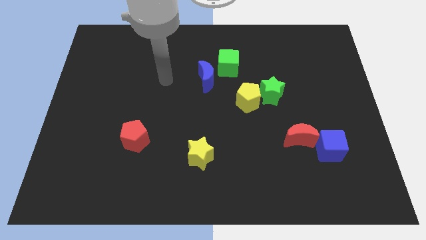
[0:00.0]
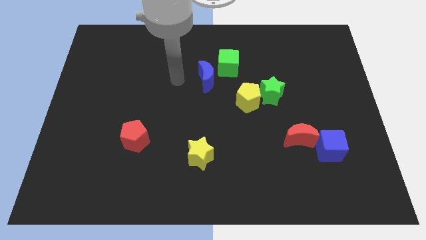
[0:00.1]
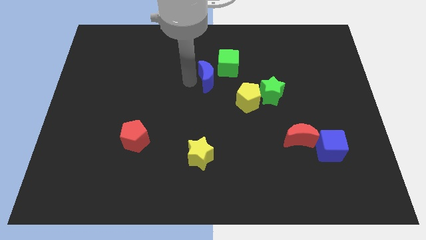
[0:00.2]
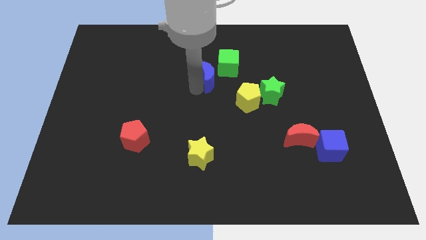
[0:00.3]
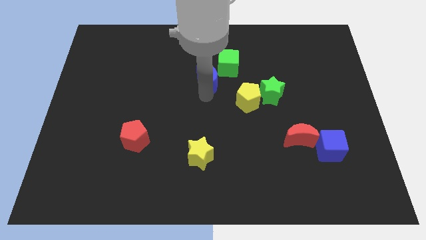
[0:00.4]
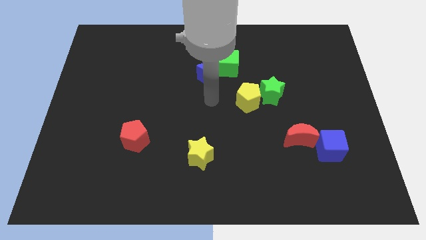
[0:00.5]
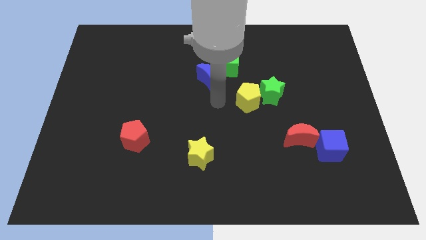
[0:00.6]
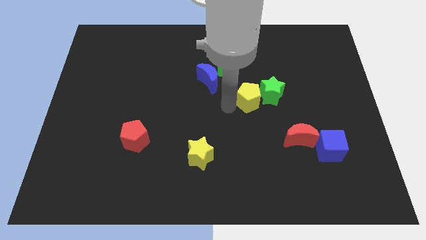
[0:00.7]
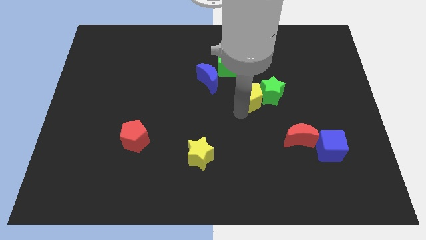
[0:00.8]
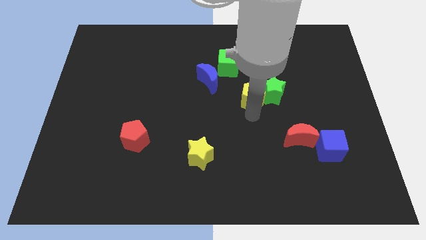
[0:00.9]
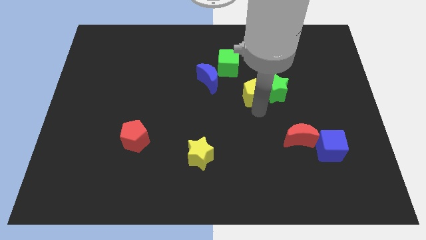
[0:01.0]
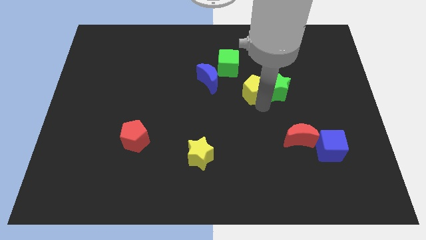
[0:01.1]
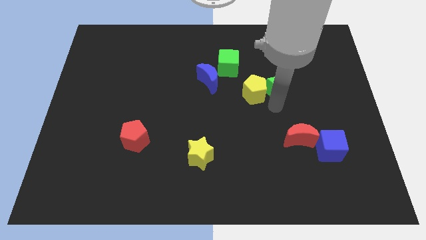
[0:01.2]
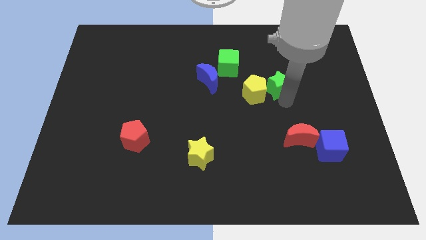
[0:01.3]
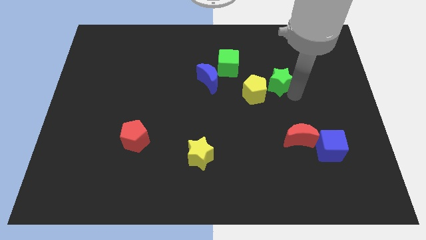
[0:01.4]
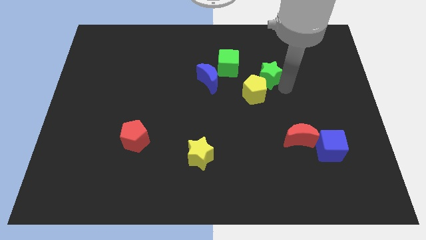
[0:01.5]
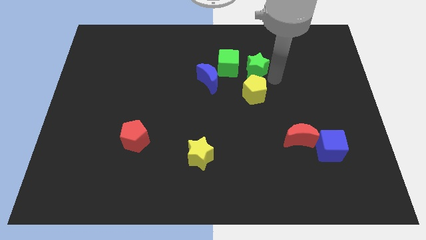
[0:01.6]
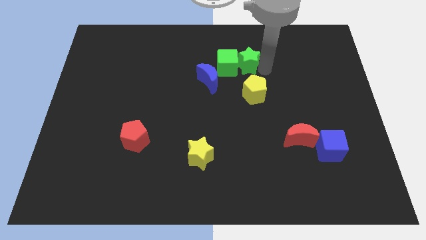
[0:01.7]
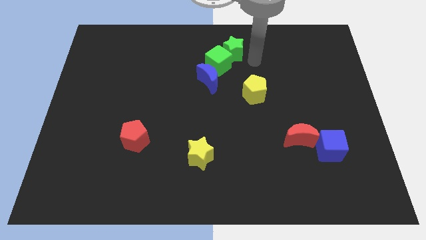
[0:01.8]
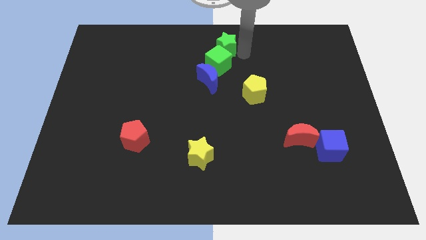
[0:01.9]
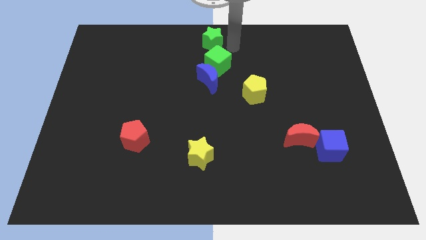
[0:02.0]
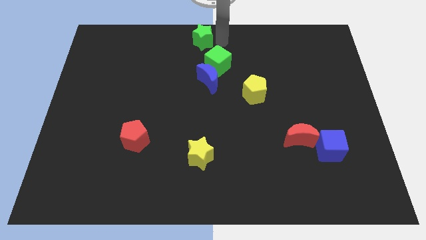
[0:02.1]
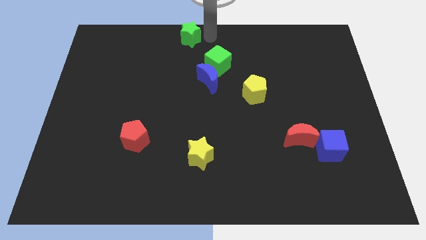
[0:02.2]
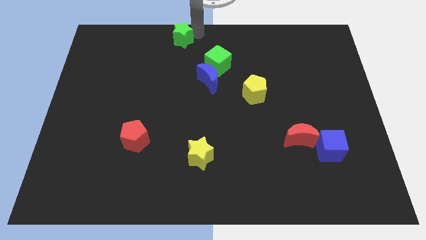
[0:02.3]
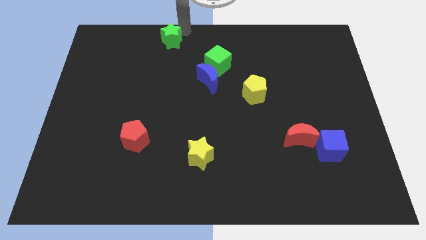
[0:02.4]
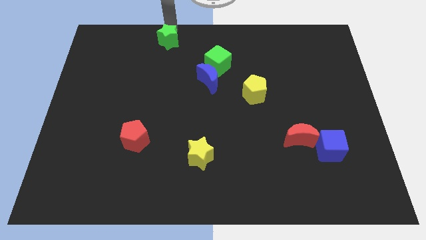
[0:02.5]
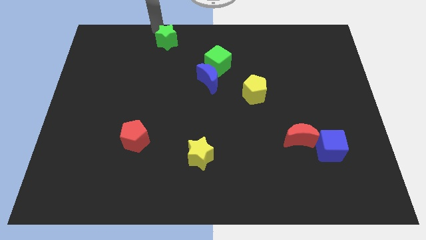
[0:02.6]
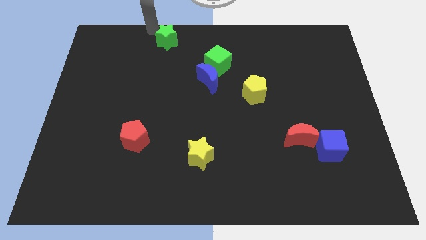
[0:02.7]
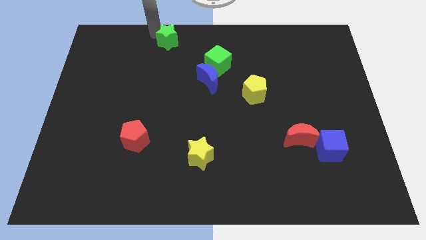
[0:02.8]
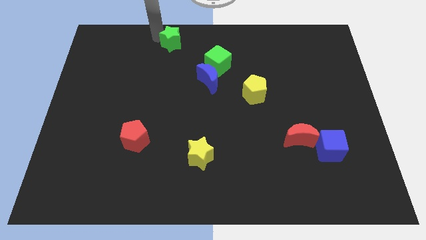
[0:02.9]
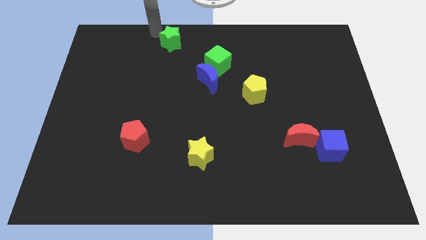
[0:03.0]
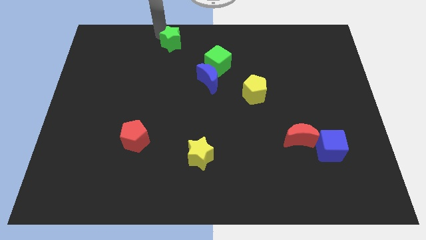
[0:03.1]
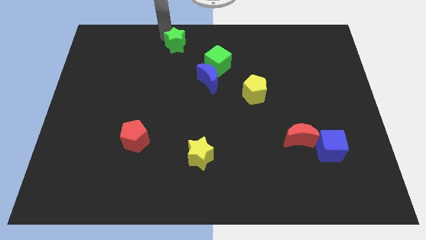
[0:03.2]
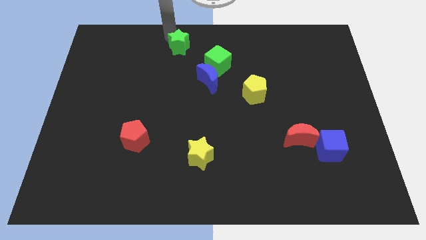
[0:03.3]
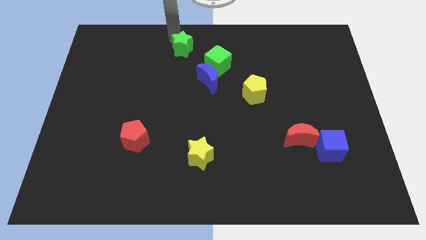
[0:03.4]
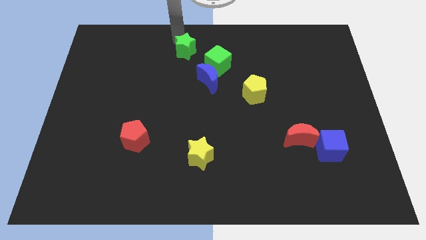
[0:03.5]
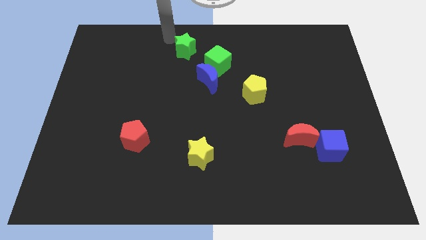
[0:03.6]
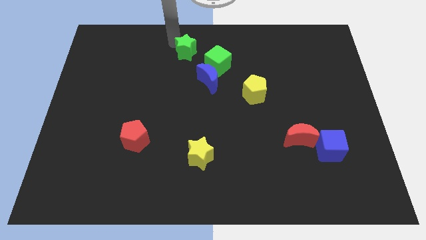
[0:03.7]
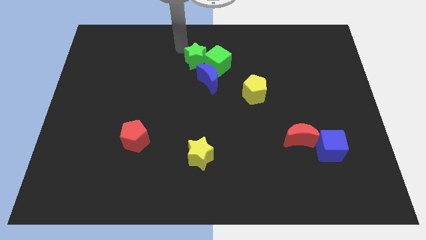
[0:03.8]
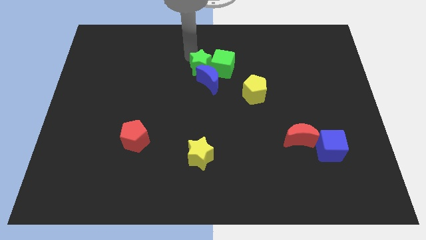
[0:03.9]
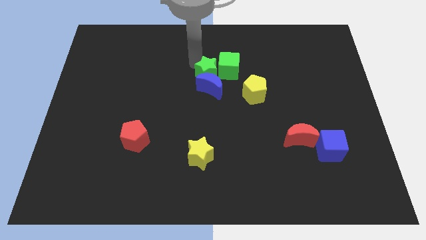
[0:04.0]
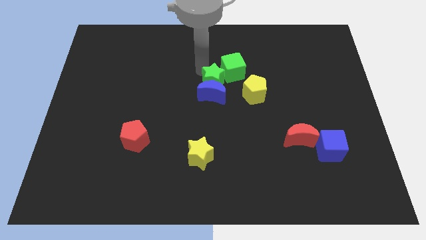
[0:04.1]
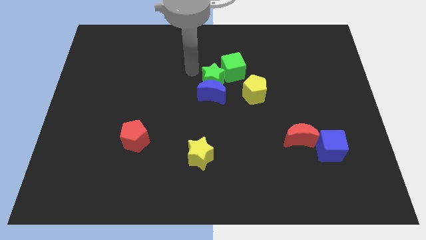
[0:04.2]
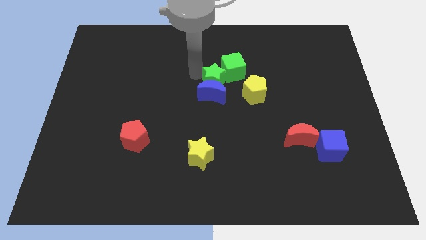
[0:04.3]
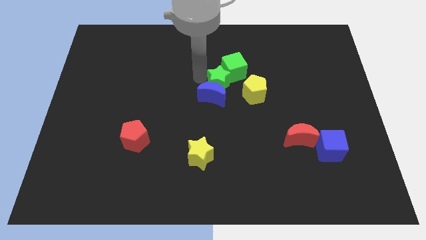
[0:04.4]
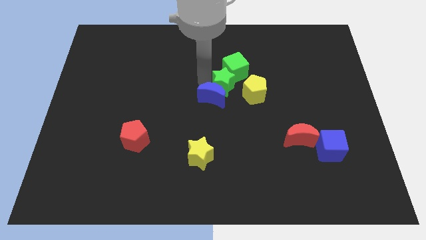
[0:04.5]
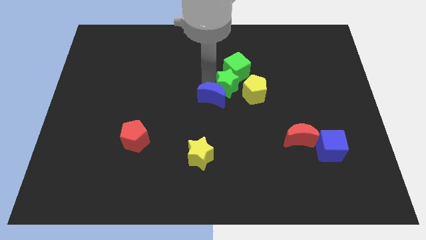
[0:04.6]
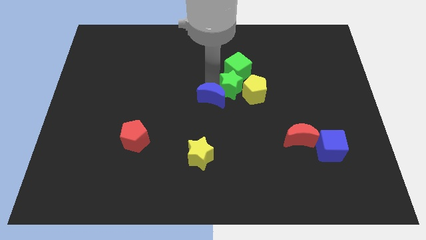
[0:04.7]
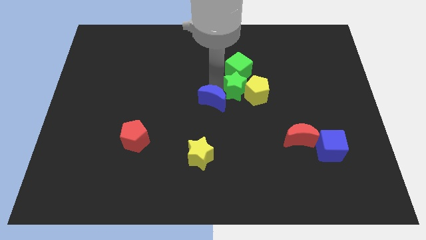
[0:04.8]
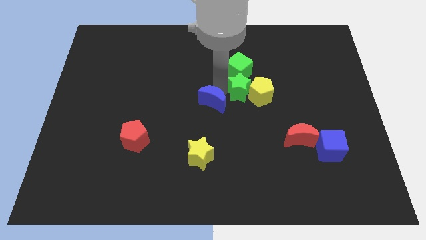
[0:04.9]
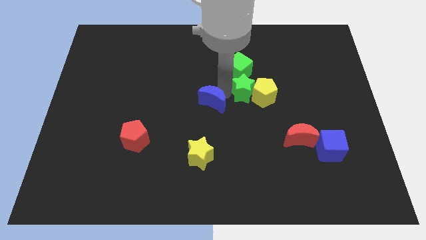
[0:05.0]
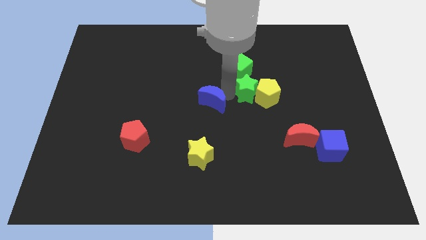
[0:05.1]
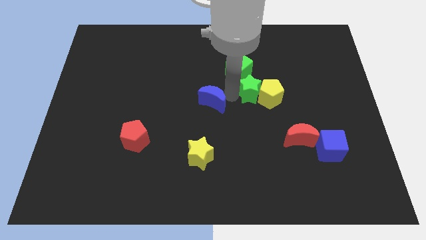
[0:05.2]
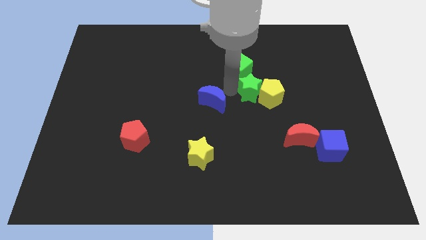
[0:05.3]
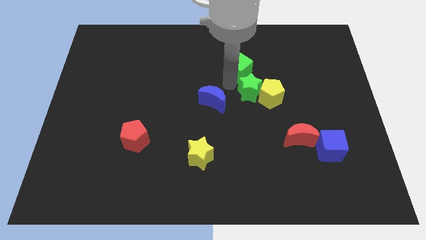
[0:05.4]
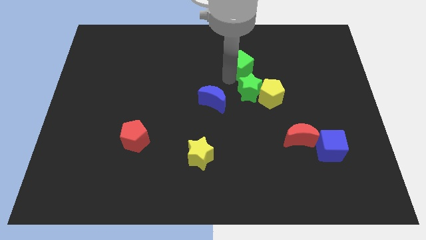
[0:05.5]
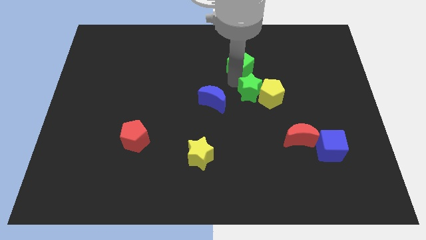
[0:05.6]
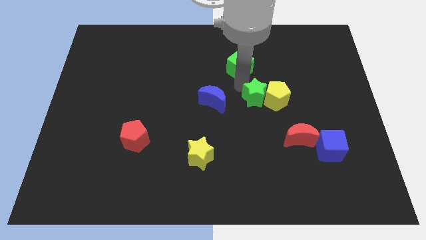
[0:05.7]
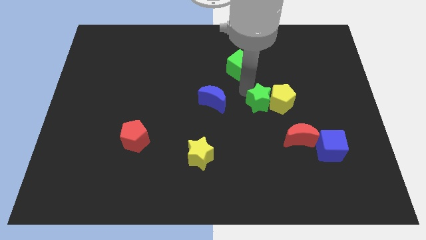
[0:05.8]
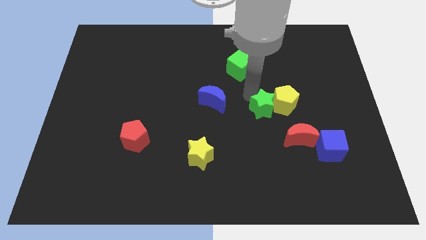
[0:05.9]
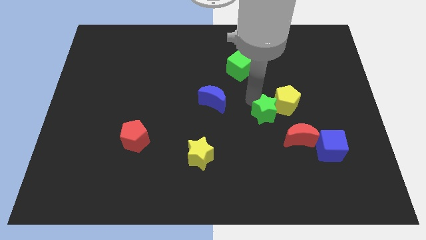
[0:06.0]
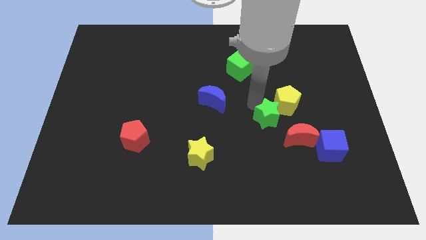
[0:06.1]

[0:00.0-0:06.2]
slightly slide the green star downwards

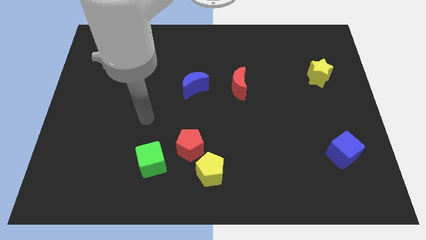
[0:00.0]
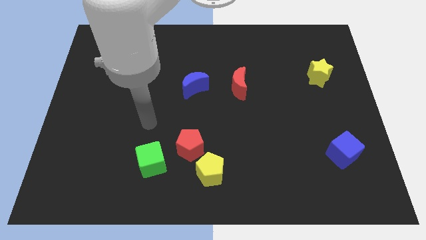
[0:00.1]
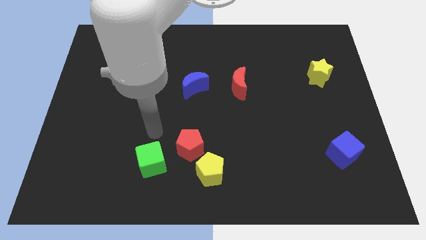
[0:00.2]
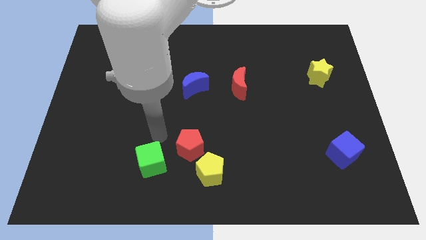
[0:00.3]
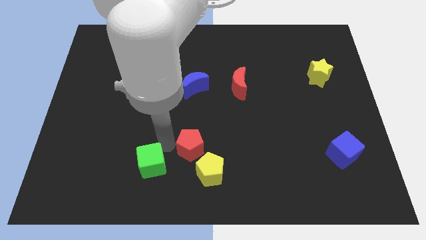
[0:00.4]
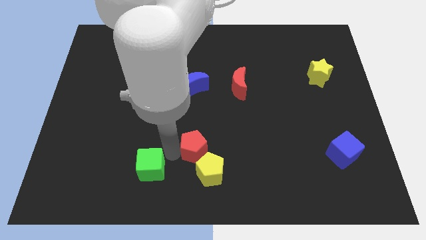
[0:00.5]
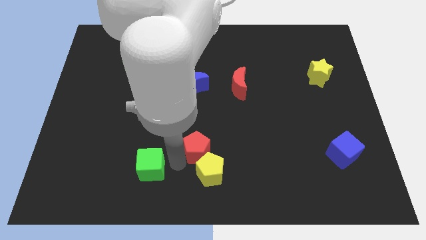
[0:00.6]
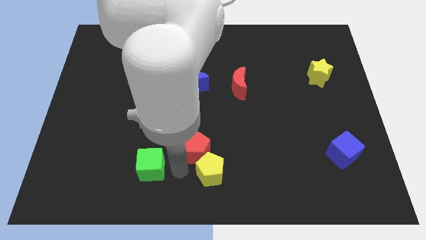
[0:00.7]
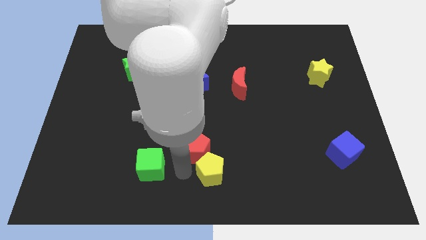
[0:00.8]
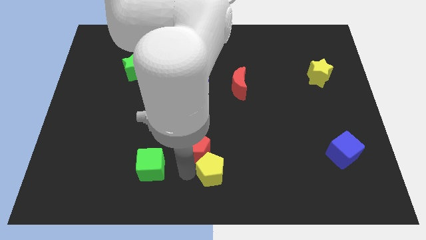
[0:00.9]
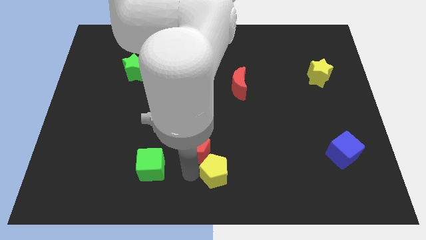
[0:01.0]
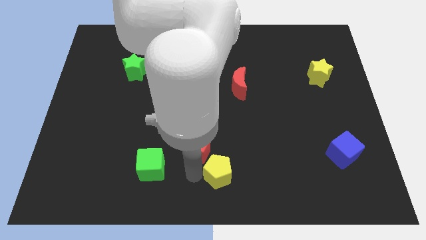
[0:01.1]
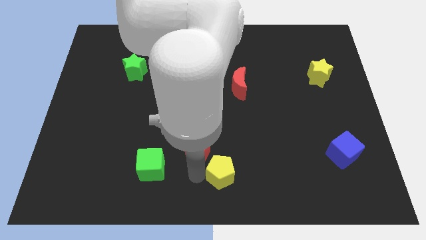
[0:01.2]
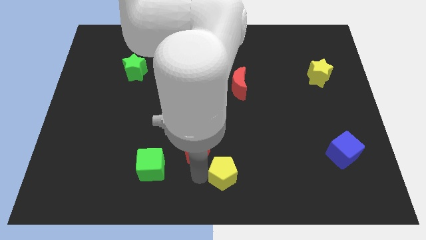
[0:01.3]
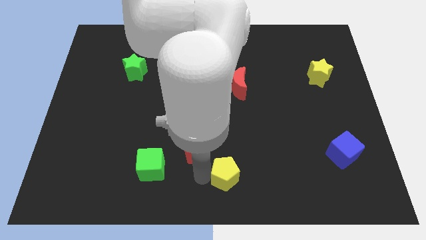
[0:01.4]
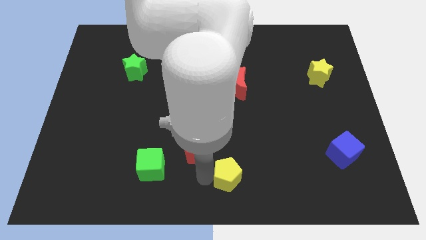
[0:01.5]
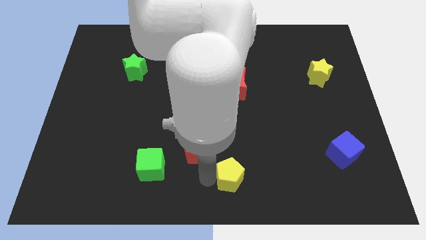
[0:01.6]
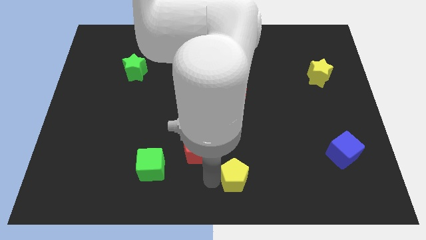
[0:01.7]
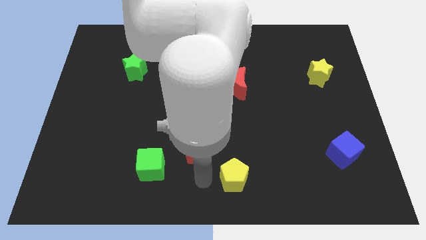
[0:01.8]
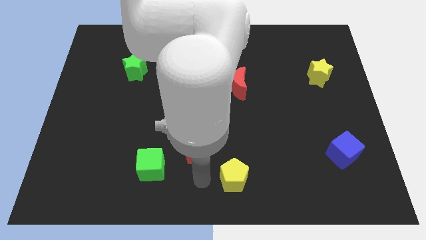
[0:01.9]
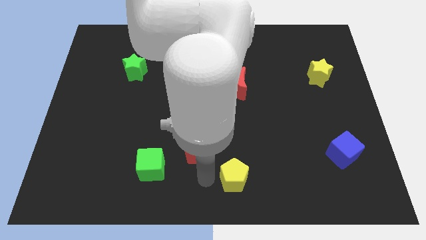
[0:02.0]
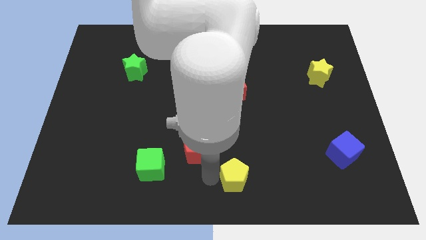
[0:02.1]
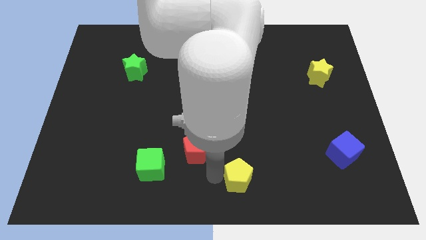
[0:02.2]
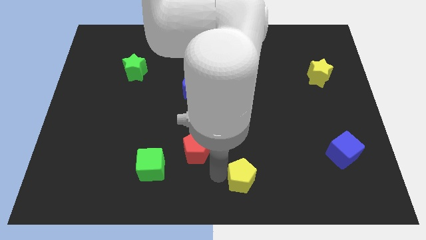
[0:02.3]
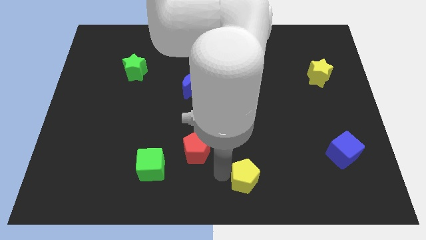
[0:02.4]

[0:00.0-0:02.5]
slightly move the yellow pentagon right

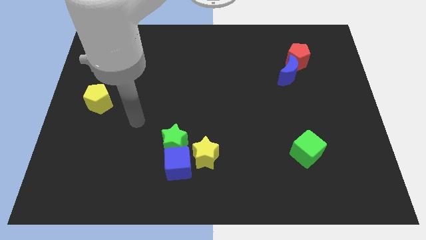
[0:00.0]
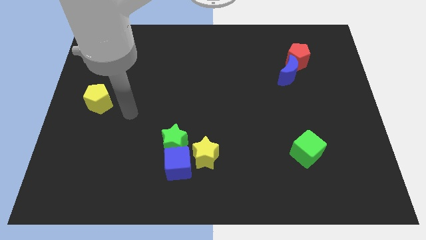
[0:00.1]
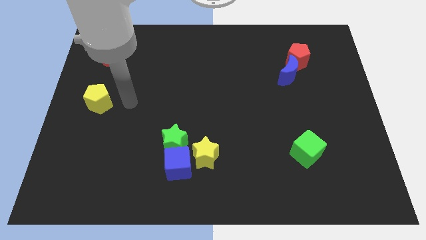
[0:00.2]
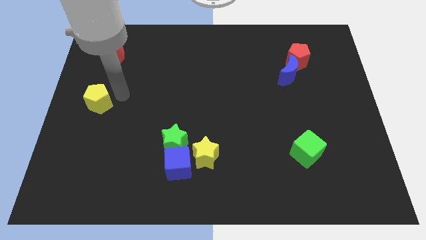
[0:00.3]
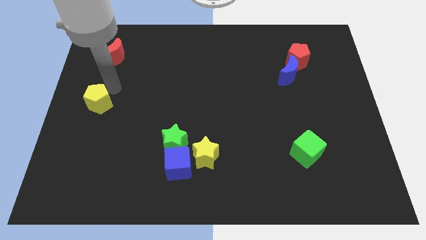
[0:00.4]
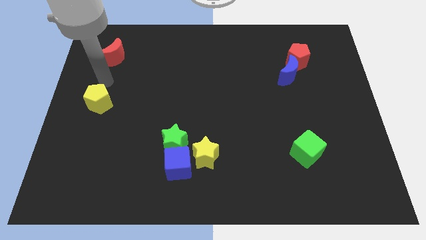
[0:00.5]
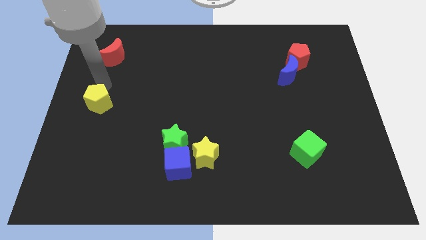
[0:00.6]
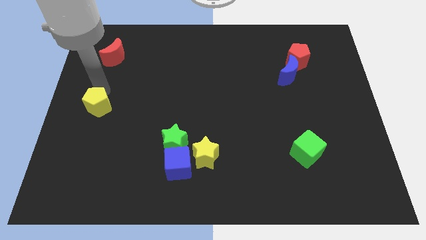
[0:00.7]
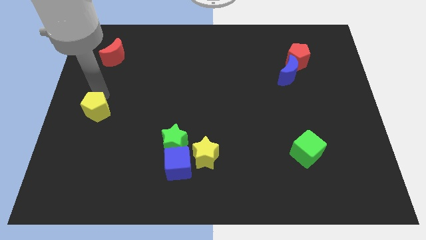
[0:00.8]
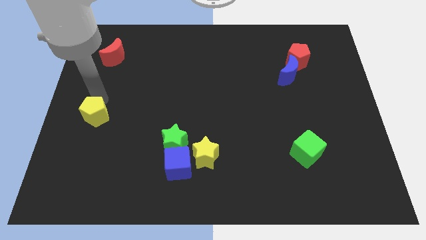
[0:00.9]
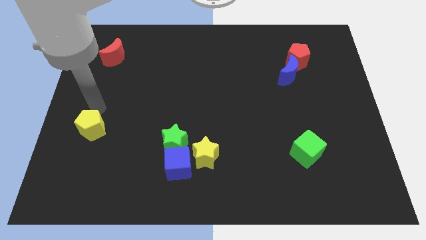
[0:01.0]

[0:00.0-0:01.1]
move the yellow pentagon a little down
